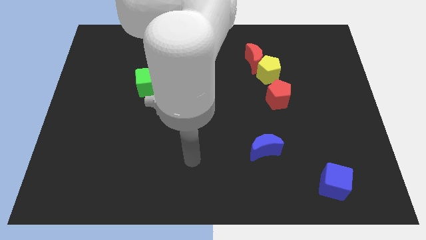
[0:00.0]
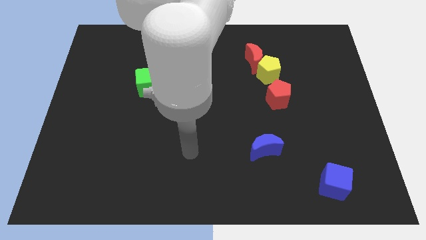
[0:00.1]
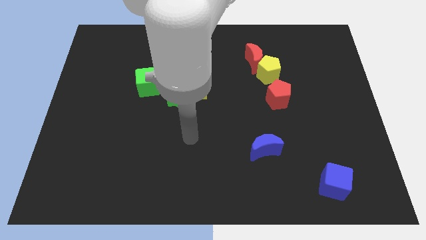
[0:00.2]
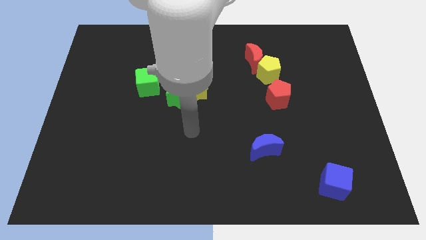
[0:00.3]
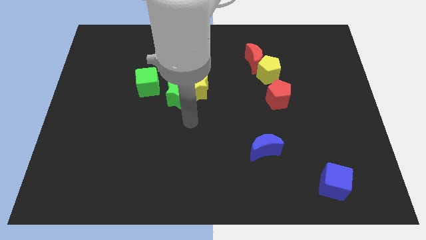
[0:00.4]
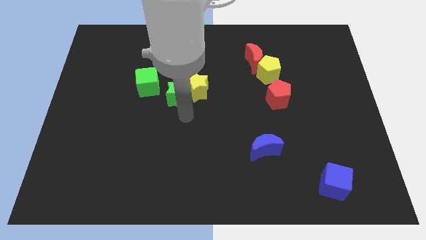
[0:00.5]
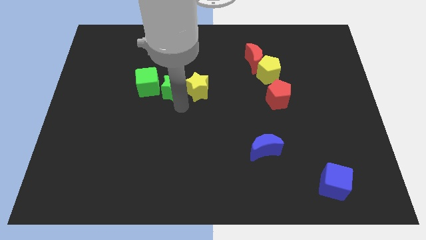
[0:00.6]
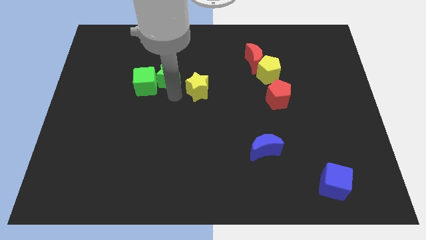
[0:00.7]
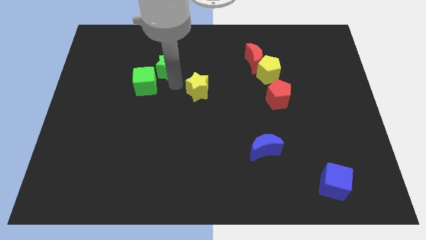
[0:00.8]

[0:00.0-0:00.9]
pull the yellow star apart from the green star

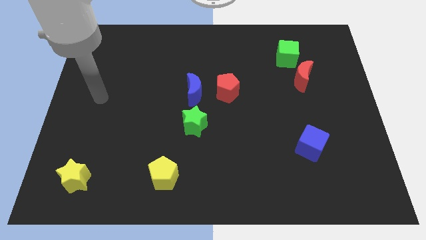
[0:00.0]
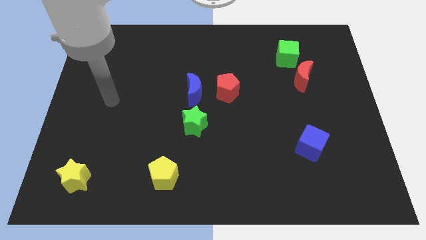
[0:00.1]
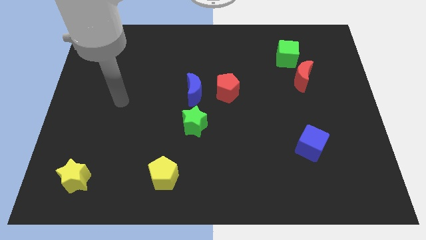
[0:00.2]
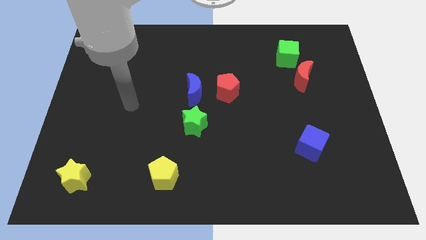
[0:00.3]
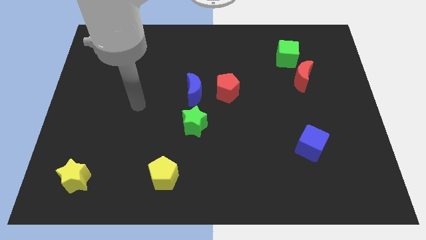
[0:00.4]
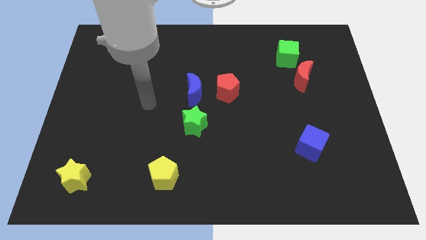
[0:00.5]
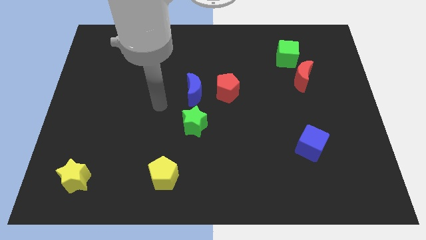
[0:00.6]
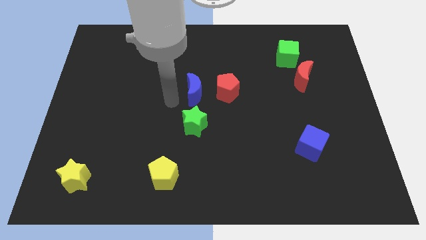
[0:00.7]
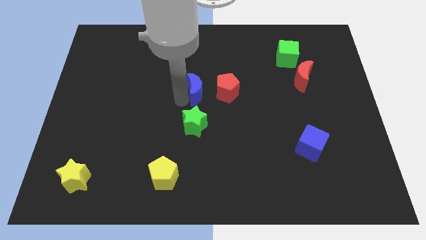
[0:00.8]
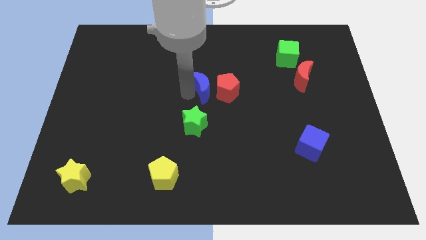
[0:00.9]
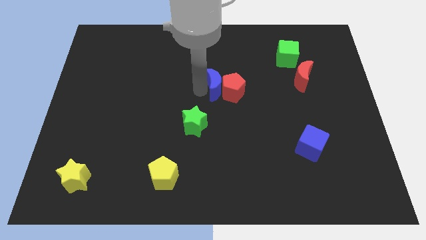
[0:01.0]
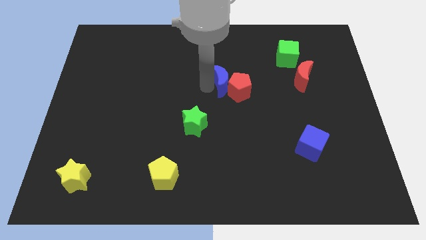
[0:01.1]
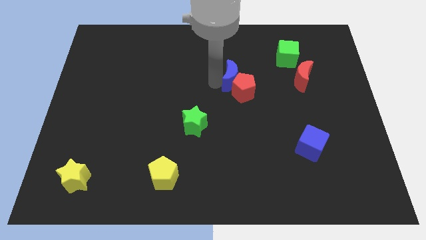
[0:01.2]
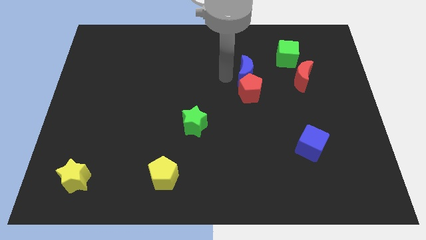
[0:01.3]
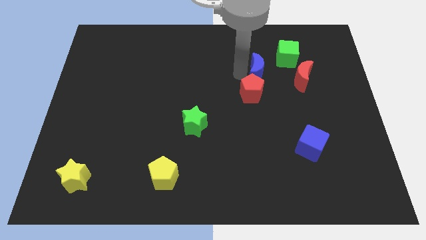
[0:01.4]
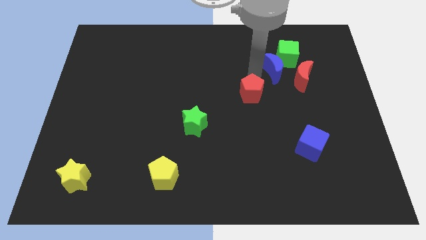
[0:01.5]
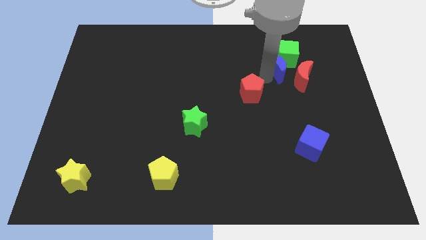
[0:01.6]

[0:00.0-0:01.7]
pull the red pentagon apart from the blue moon

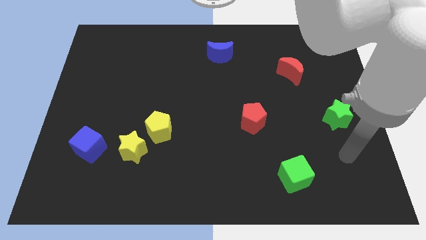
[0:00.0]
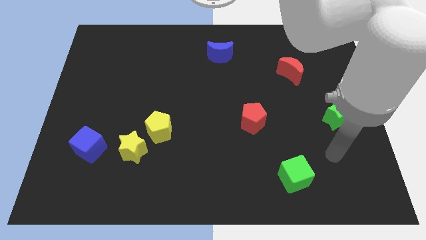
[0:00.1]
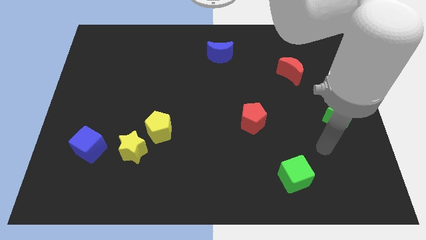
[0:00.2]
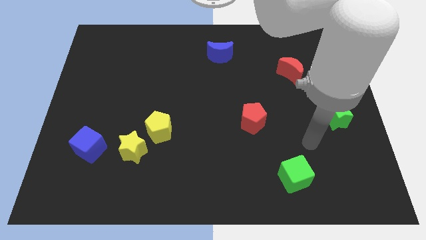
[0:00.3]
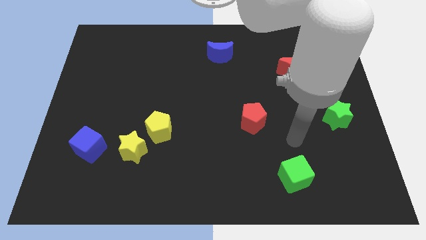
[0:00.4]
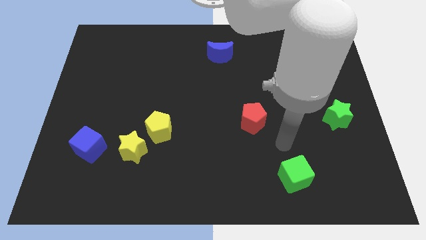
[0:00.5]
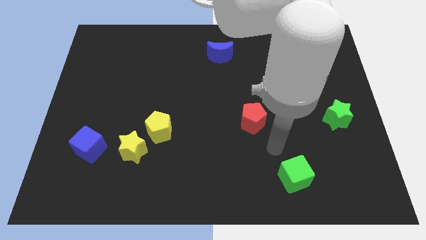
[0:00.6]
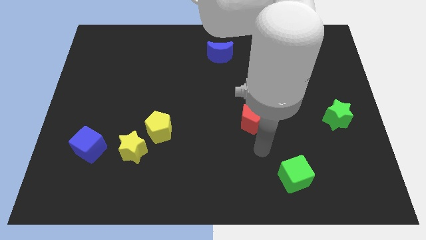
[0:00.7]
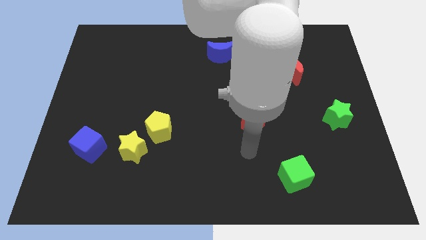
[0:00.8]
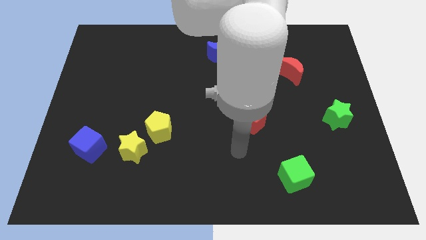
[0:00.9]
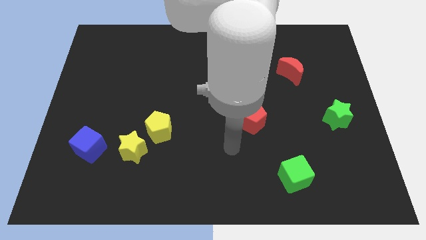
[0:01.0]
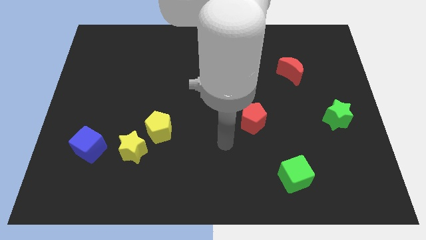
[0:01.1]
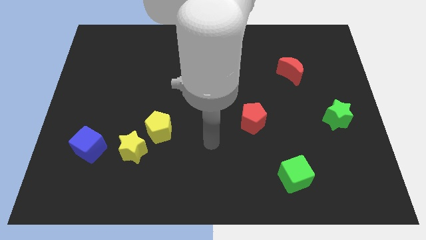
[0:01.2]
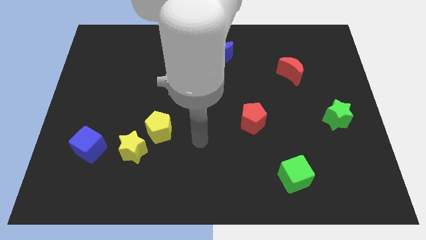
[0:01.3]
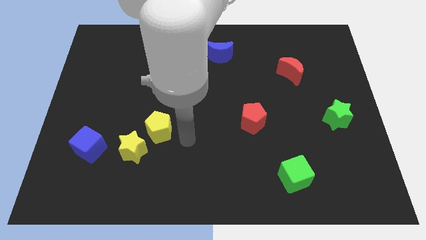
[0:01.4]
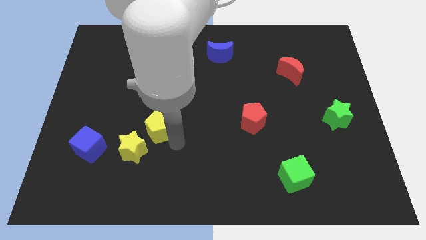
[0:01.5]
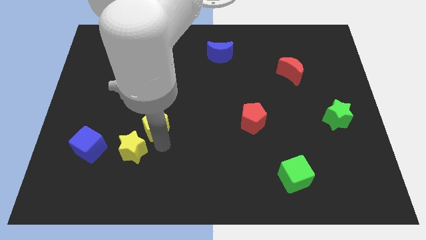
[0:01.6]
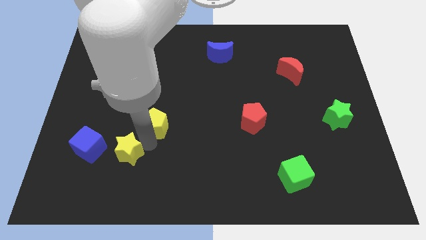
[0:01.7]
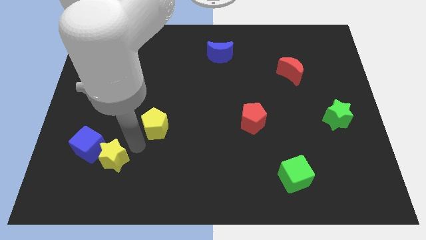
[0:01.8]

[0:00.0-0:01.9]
pull the yellow pentagon apart from the yellow star

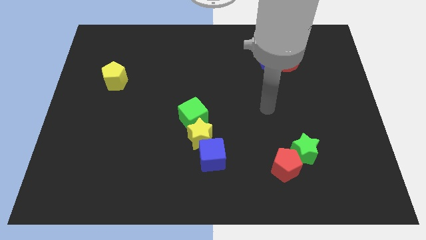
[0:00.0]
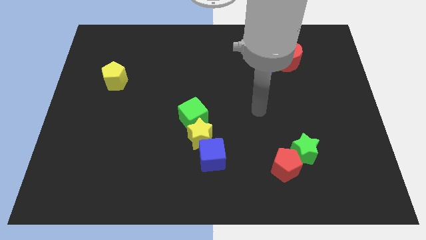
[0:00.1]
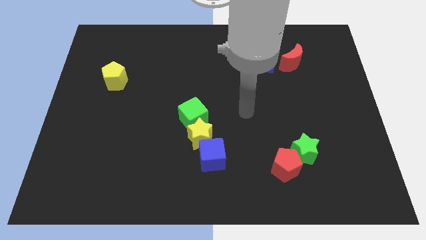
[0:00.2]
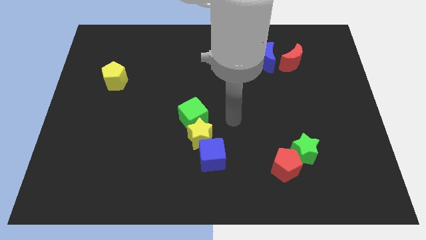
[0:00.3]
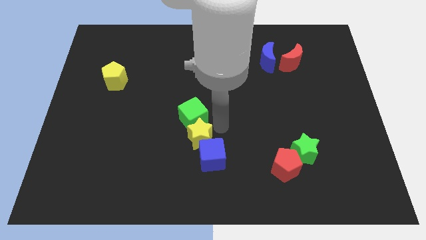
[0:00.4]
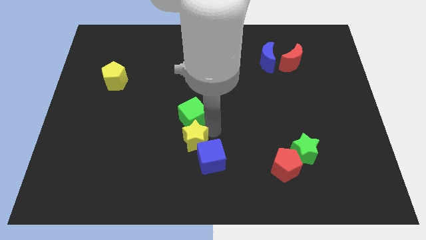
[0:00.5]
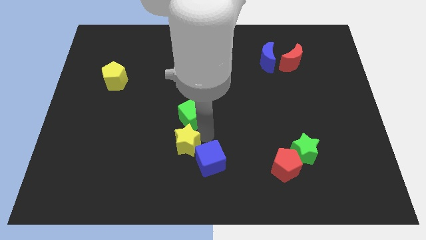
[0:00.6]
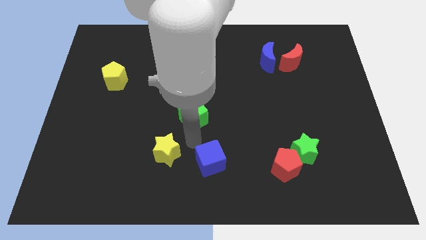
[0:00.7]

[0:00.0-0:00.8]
move the green cube away from the yellow star

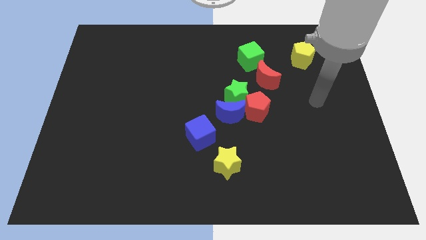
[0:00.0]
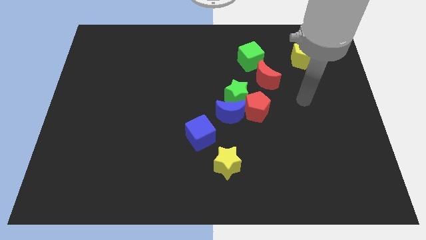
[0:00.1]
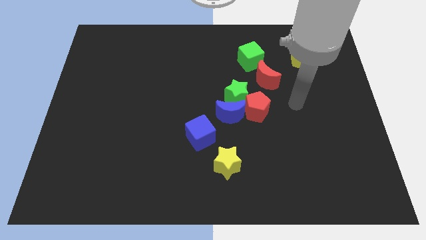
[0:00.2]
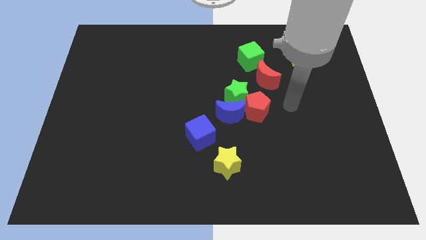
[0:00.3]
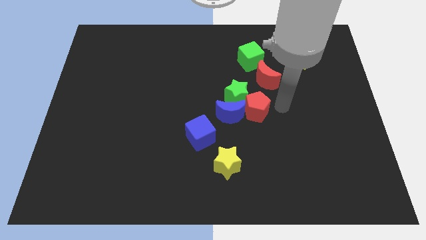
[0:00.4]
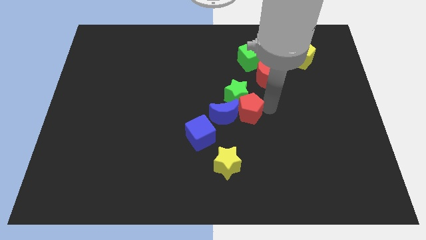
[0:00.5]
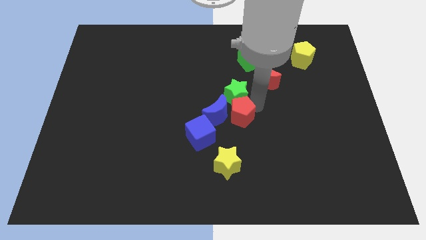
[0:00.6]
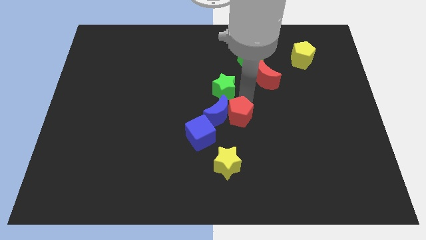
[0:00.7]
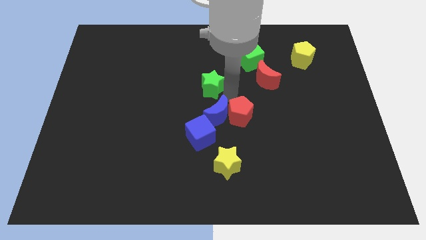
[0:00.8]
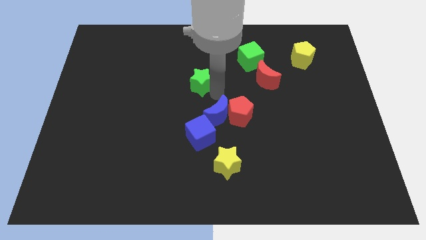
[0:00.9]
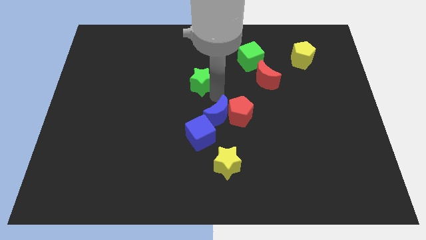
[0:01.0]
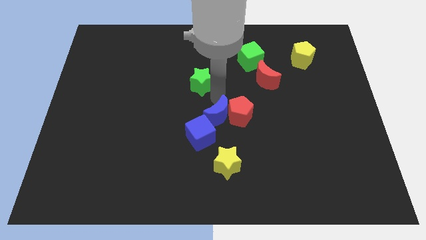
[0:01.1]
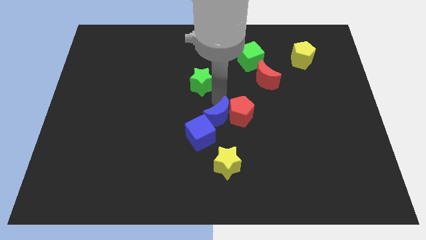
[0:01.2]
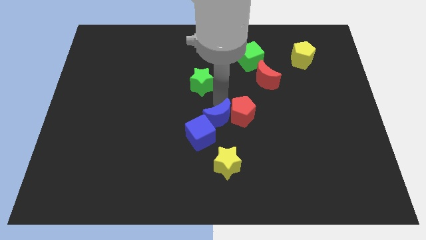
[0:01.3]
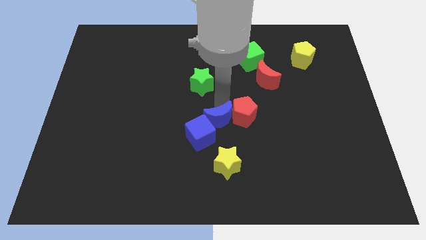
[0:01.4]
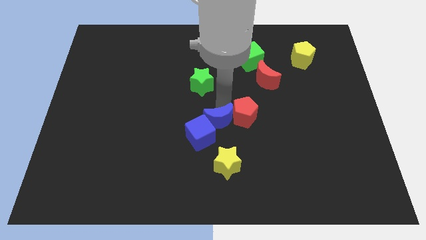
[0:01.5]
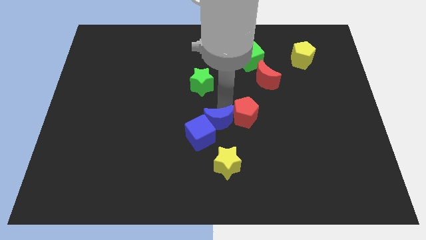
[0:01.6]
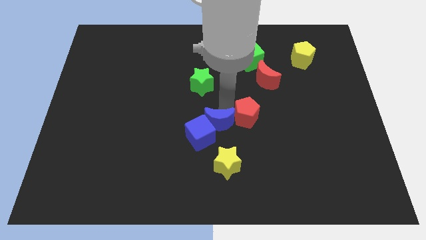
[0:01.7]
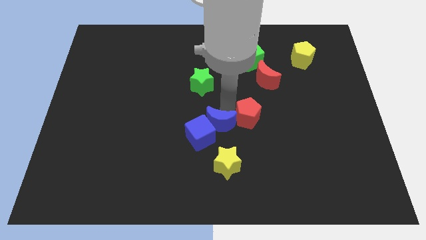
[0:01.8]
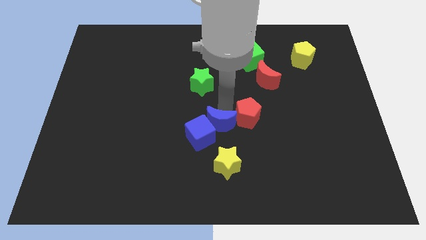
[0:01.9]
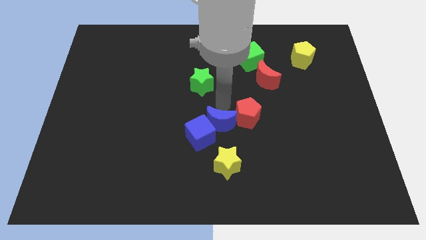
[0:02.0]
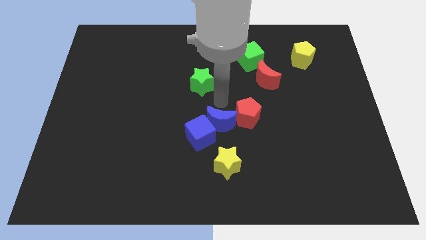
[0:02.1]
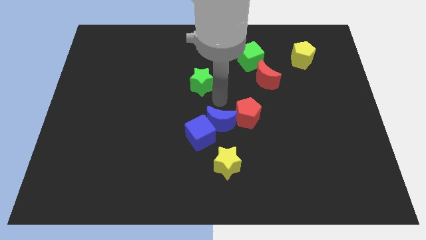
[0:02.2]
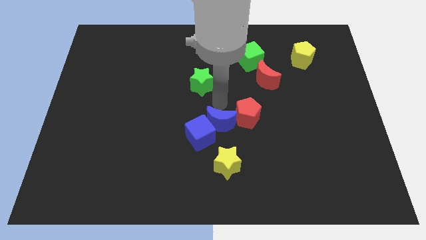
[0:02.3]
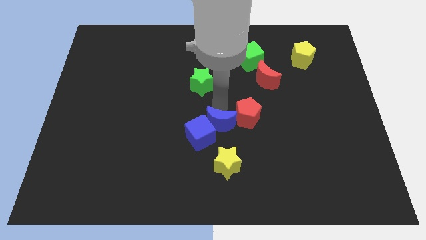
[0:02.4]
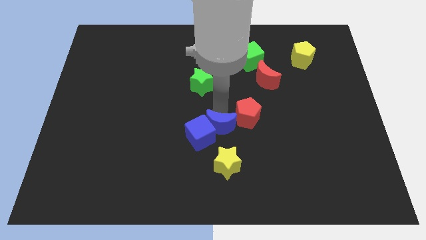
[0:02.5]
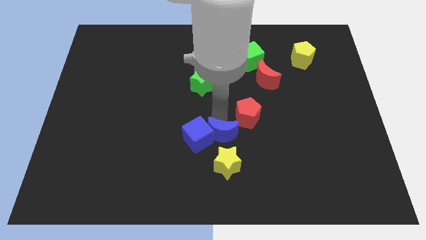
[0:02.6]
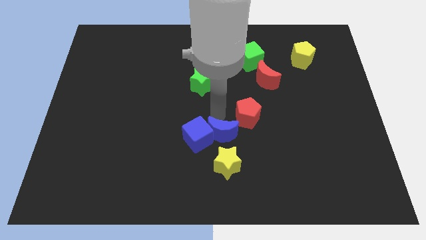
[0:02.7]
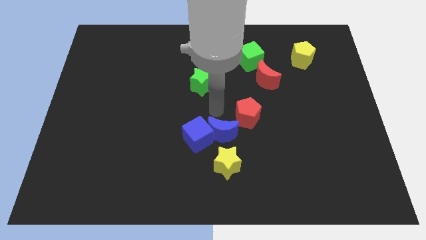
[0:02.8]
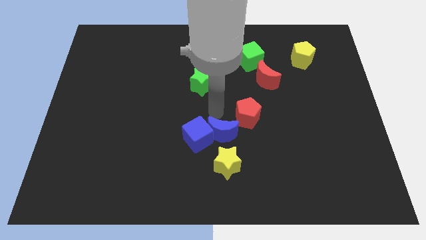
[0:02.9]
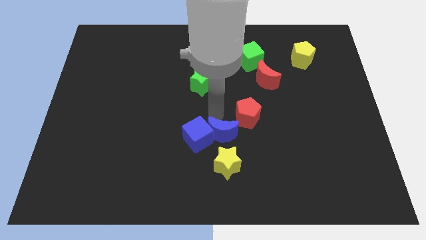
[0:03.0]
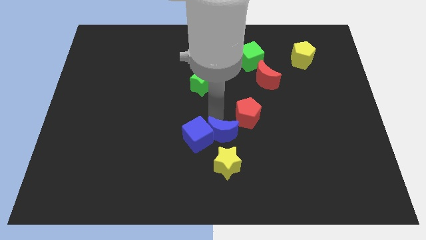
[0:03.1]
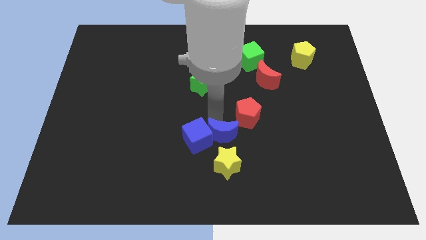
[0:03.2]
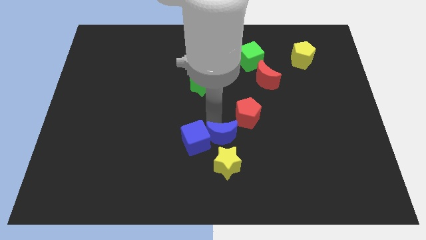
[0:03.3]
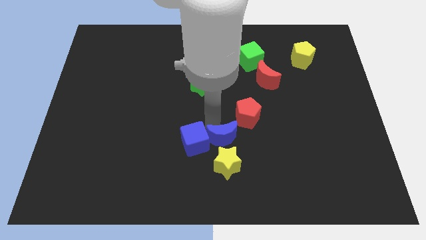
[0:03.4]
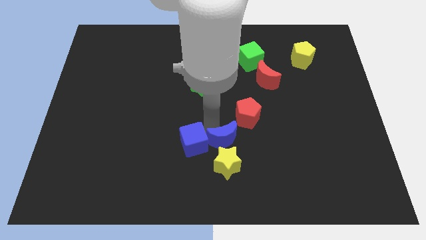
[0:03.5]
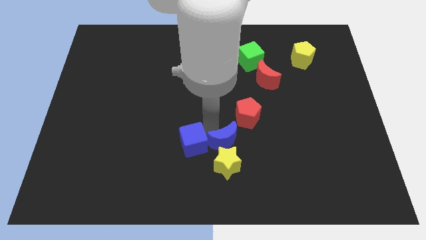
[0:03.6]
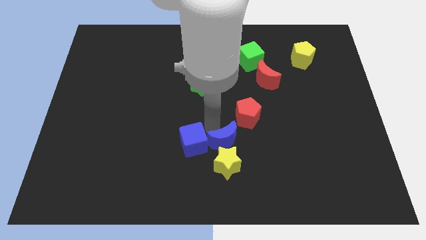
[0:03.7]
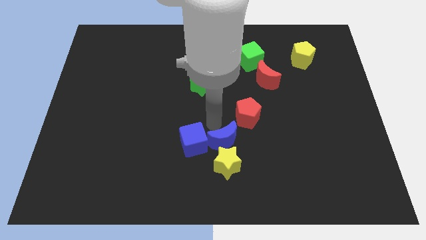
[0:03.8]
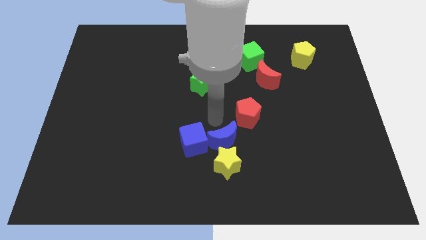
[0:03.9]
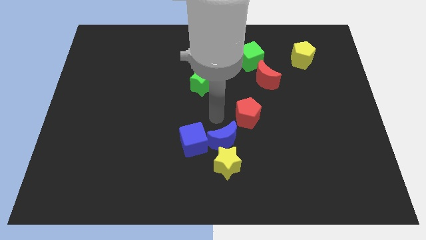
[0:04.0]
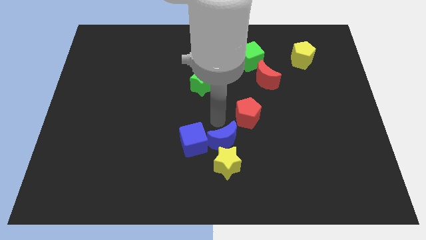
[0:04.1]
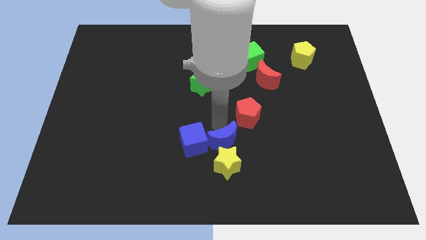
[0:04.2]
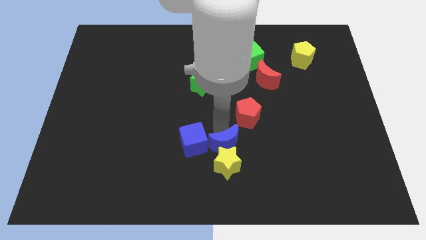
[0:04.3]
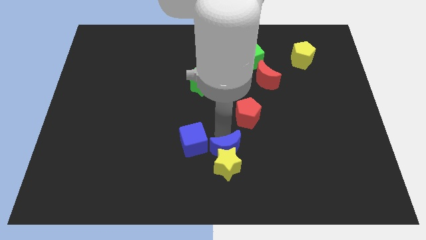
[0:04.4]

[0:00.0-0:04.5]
pull the blue moon apart from the clump
